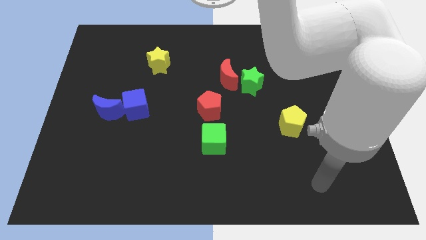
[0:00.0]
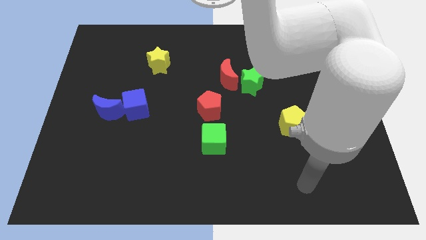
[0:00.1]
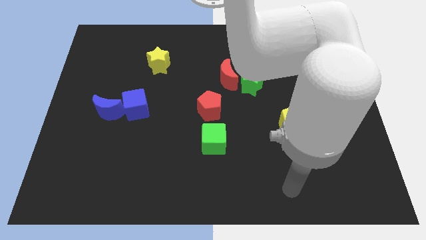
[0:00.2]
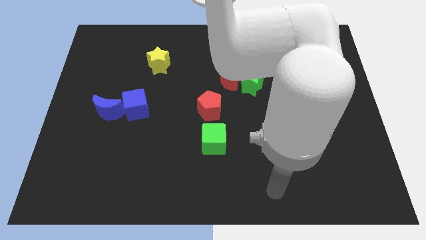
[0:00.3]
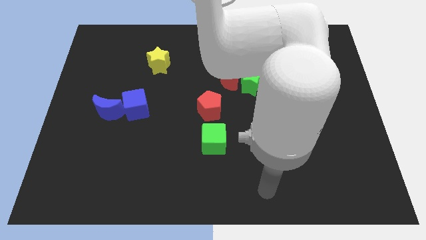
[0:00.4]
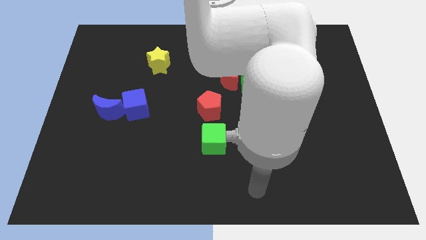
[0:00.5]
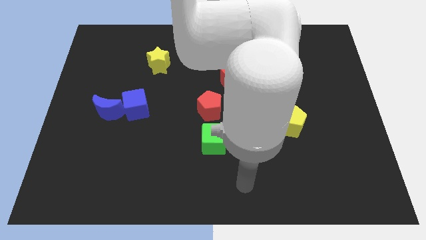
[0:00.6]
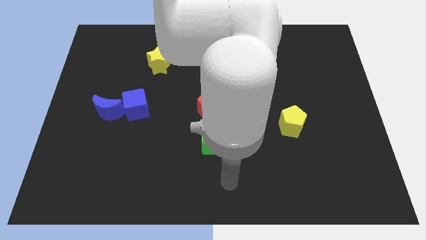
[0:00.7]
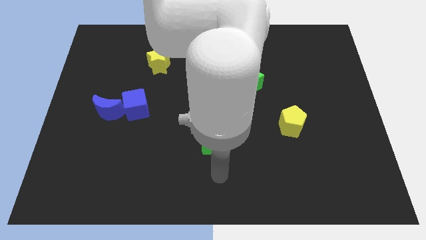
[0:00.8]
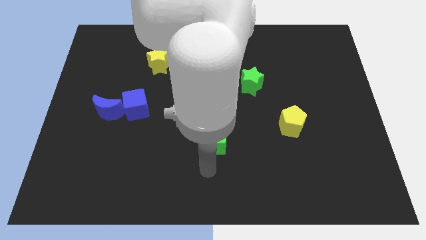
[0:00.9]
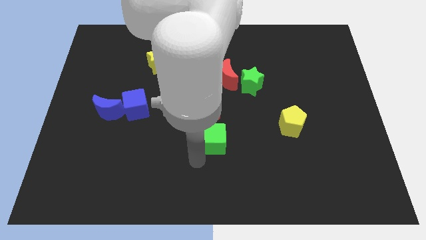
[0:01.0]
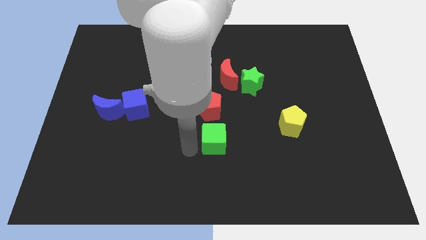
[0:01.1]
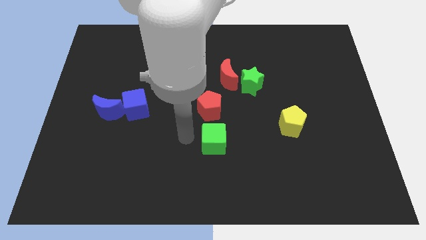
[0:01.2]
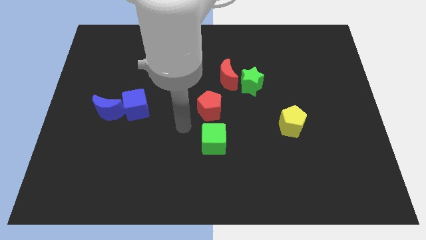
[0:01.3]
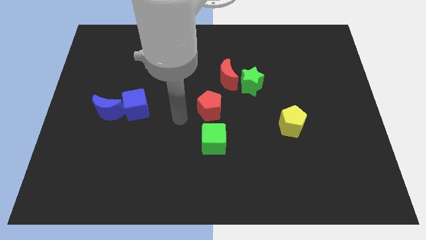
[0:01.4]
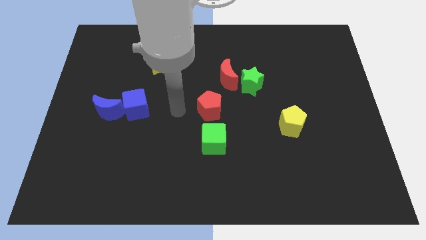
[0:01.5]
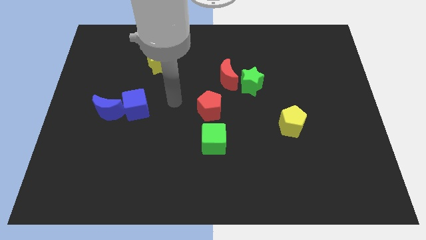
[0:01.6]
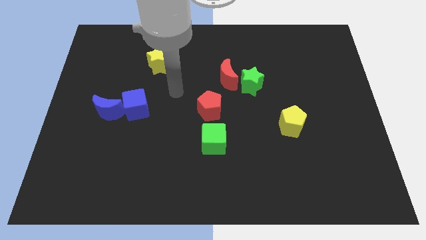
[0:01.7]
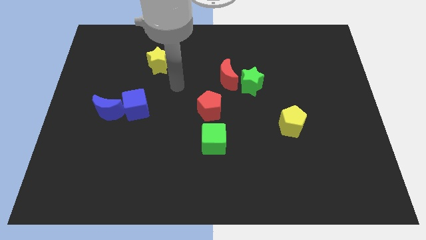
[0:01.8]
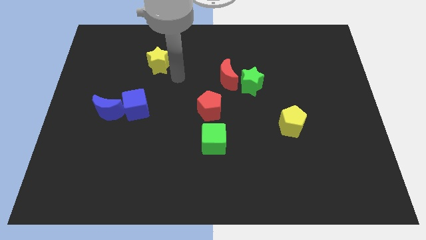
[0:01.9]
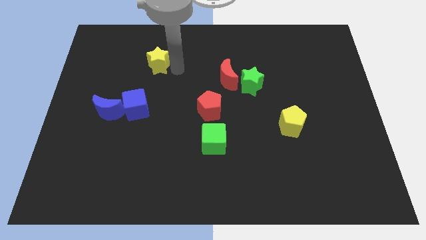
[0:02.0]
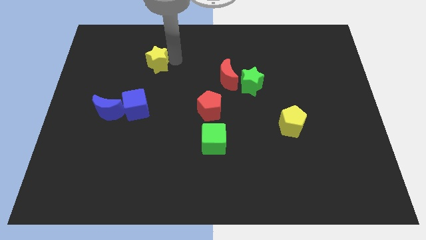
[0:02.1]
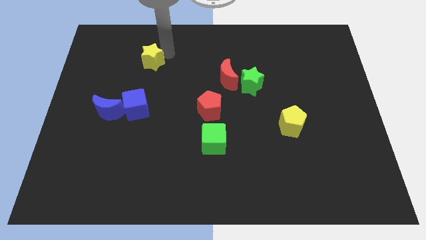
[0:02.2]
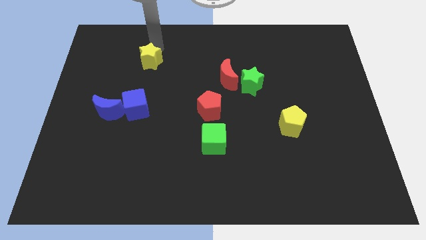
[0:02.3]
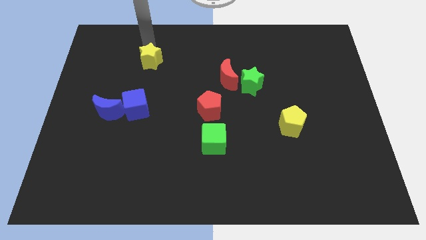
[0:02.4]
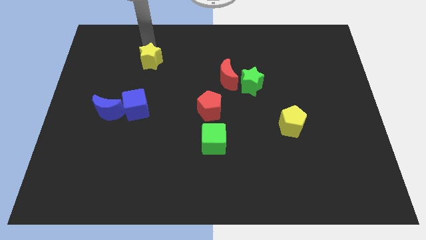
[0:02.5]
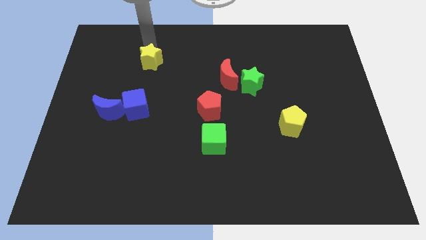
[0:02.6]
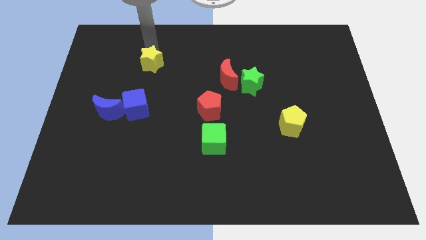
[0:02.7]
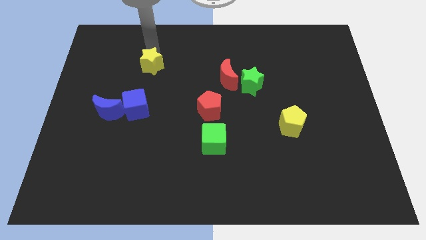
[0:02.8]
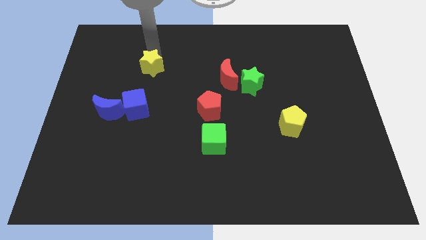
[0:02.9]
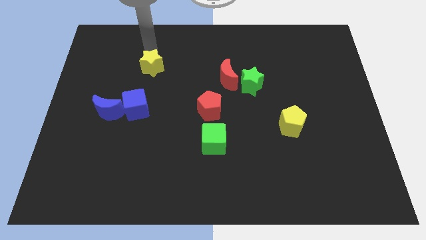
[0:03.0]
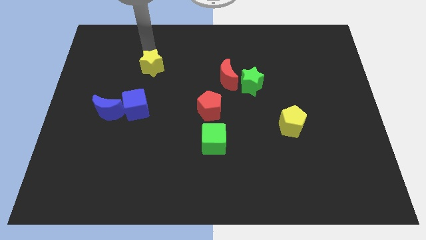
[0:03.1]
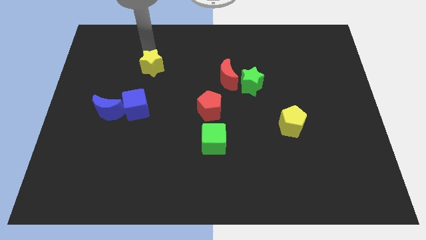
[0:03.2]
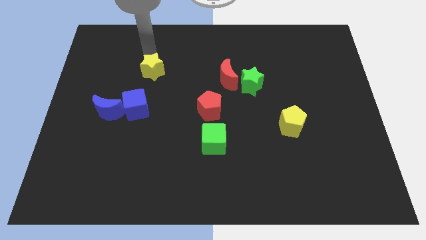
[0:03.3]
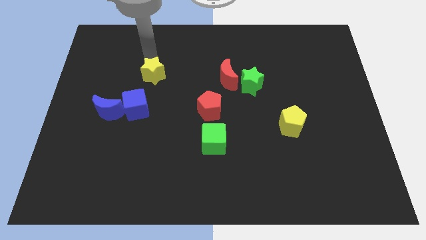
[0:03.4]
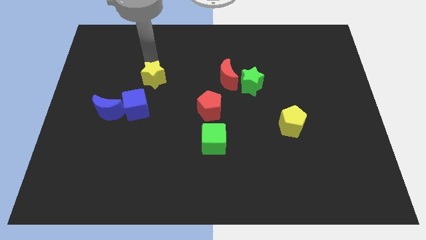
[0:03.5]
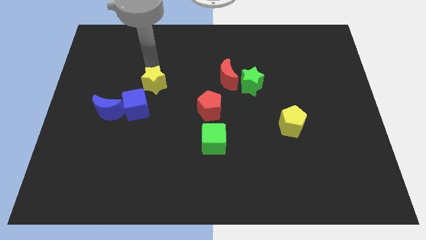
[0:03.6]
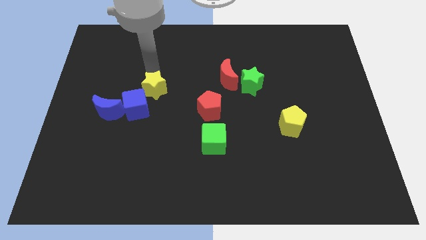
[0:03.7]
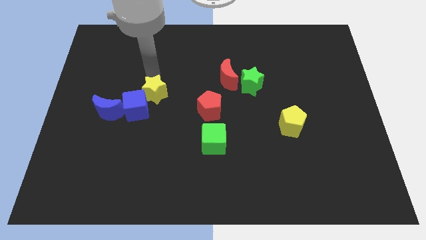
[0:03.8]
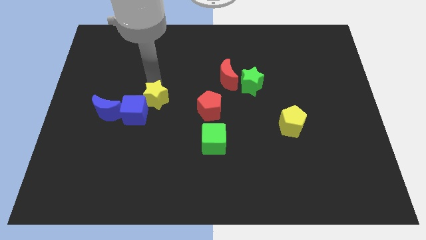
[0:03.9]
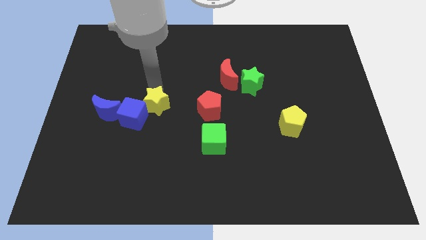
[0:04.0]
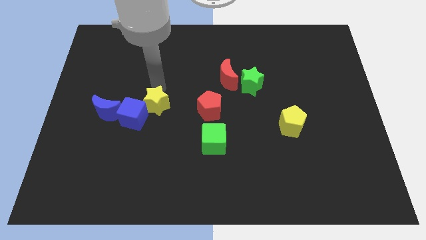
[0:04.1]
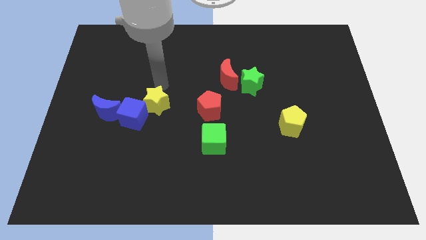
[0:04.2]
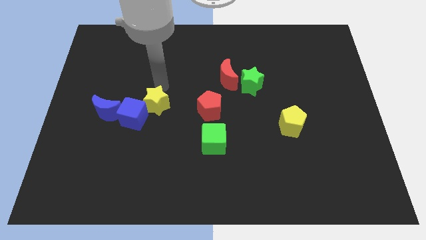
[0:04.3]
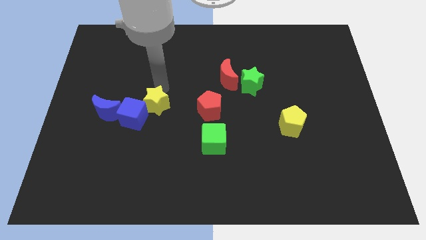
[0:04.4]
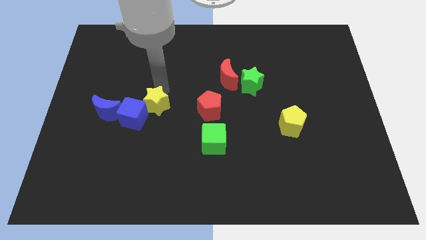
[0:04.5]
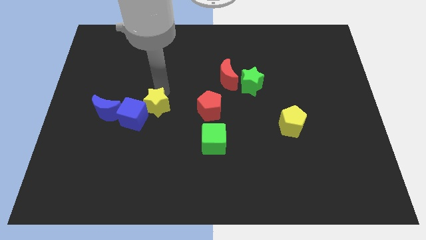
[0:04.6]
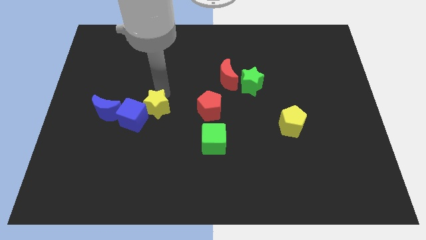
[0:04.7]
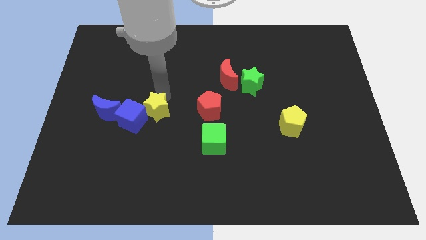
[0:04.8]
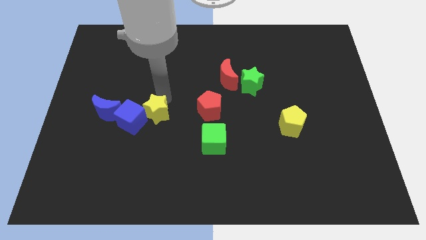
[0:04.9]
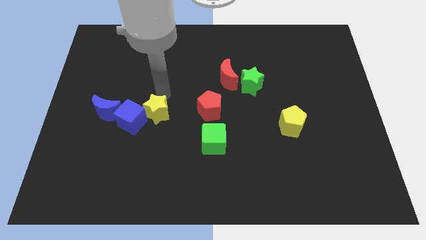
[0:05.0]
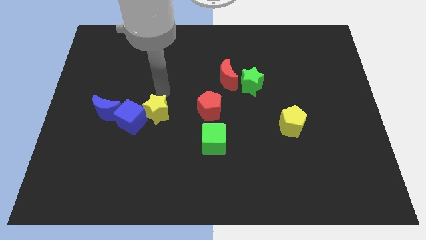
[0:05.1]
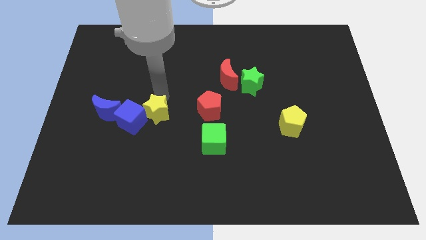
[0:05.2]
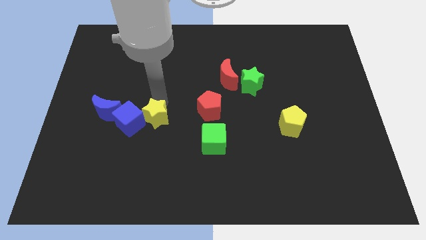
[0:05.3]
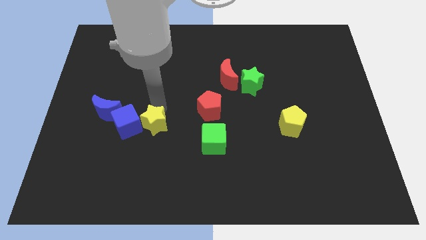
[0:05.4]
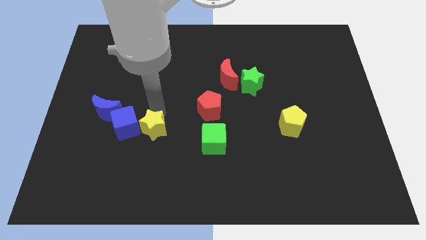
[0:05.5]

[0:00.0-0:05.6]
slide the yellow star downwards

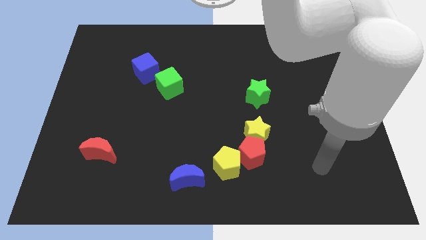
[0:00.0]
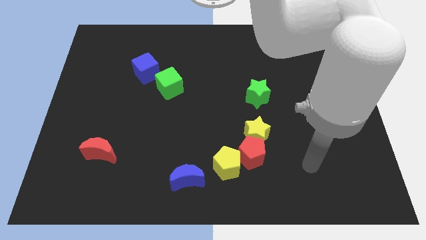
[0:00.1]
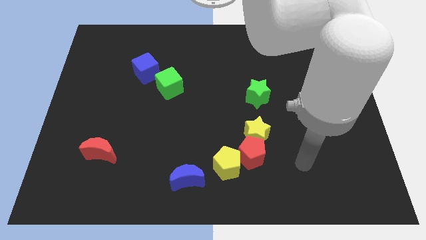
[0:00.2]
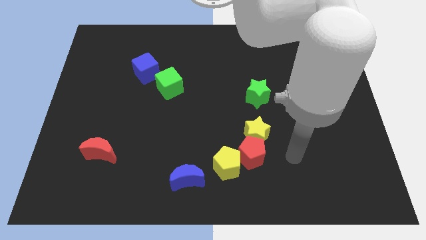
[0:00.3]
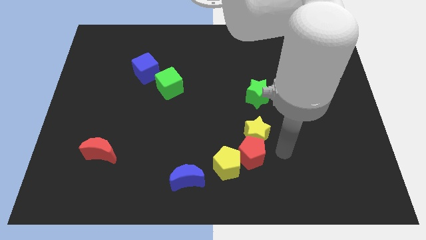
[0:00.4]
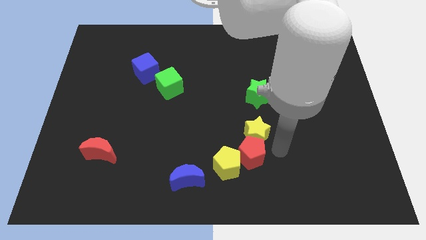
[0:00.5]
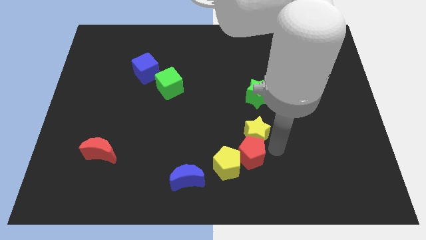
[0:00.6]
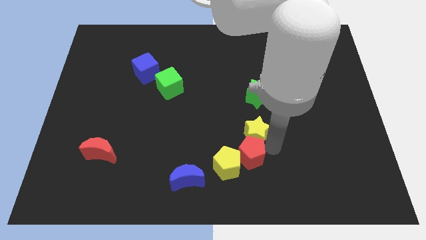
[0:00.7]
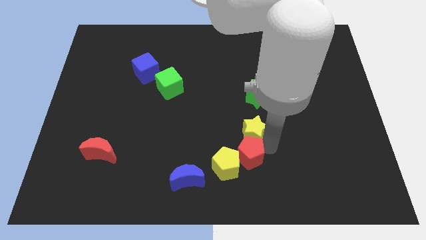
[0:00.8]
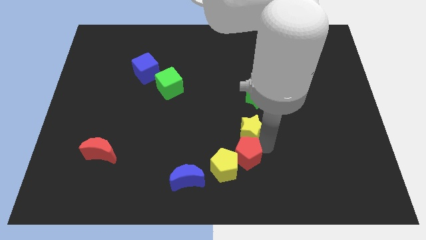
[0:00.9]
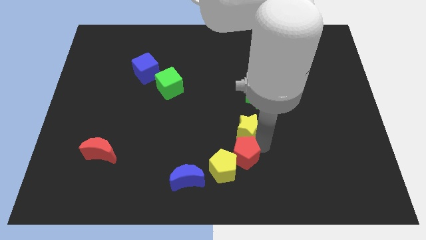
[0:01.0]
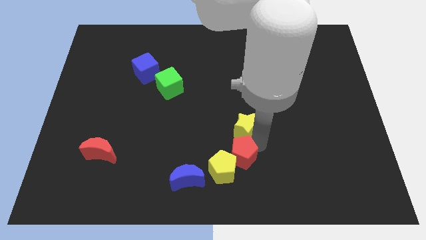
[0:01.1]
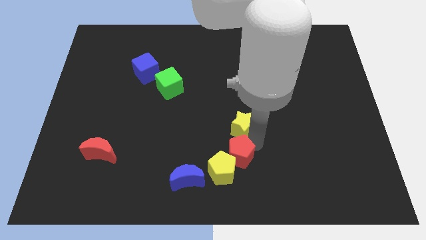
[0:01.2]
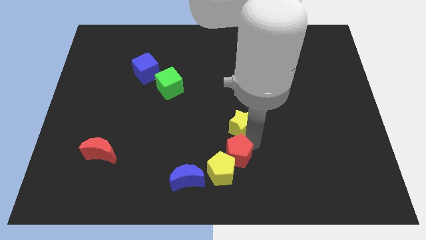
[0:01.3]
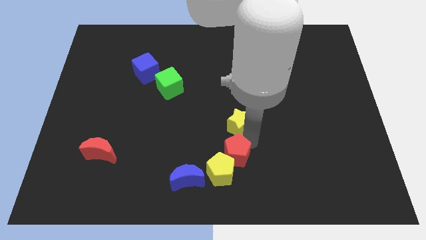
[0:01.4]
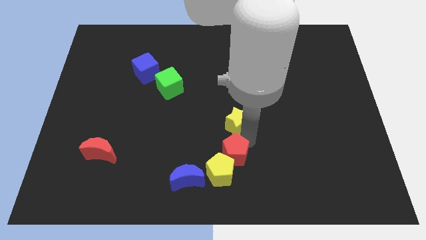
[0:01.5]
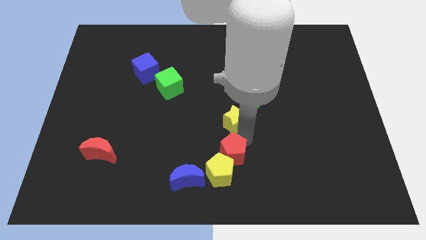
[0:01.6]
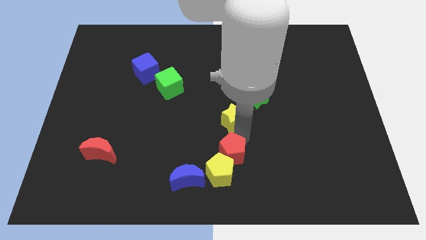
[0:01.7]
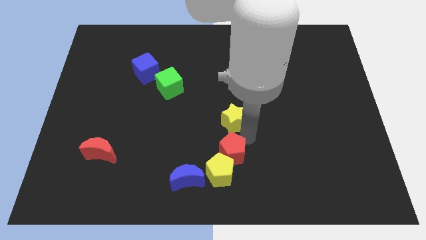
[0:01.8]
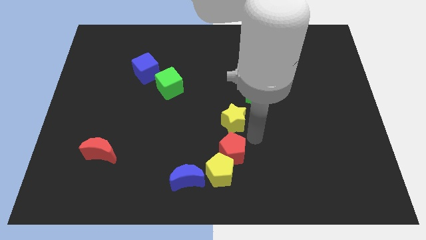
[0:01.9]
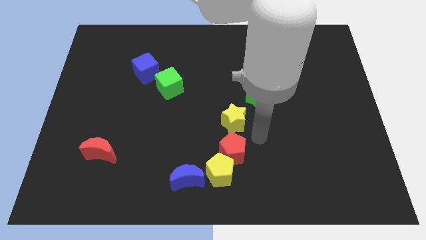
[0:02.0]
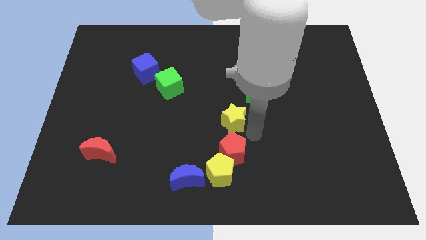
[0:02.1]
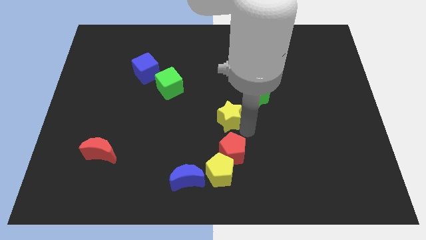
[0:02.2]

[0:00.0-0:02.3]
slide the yellow star up and to the left a little bit
